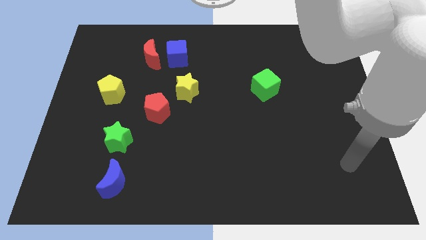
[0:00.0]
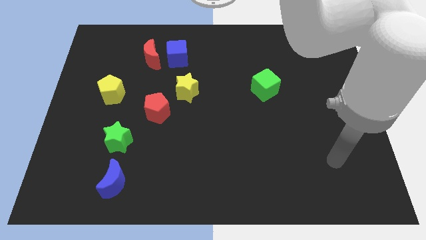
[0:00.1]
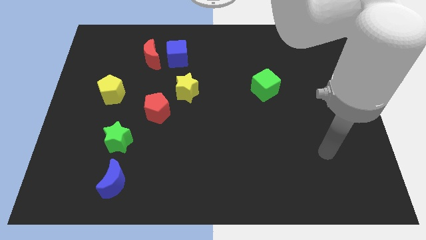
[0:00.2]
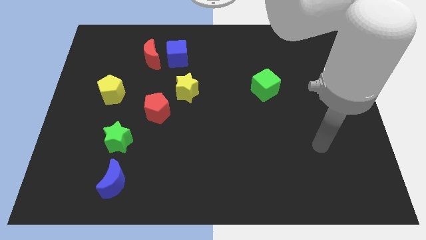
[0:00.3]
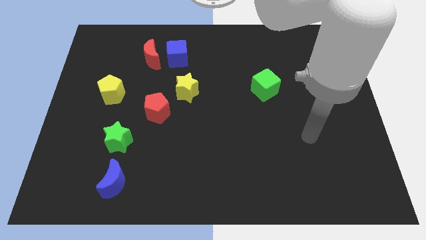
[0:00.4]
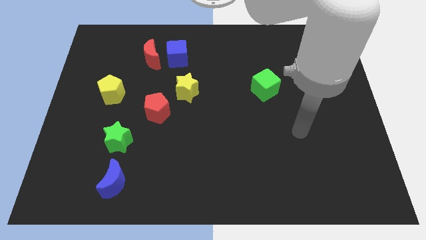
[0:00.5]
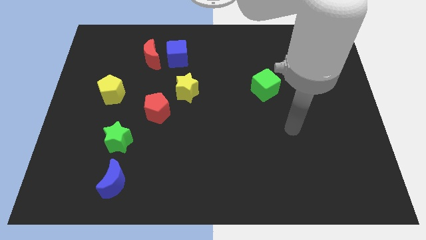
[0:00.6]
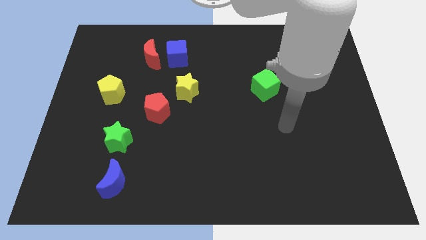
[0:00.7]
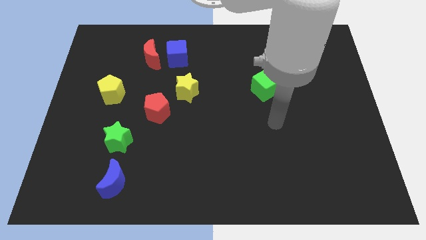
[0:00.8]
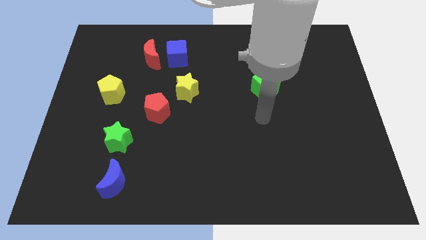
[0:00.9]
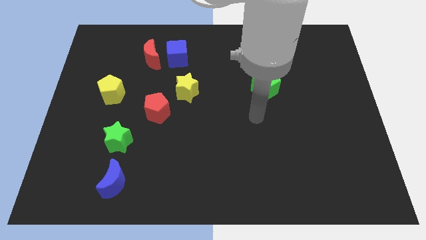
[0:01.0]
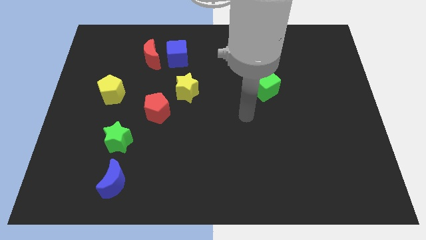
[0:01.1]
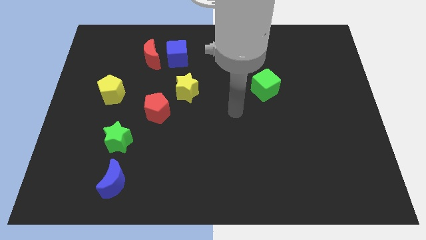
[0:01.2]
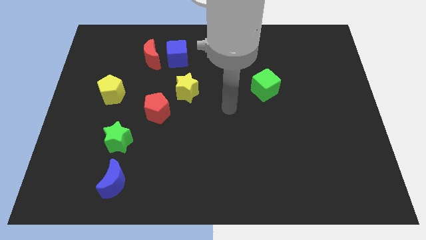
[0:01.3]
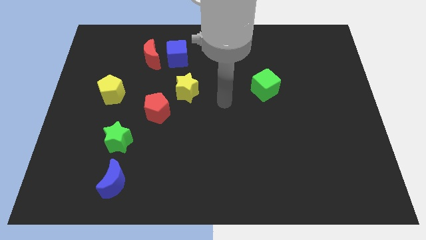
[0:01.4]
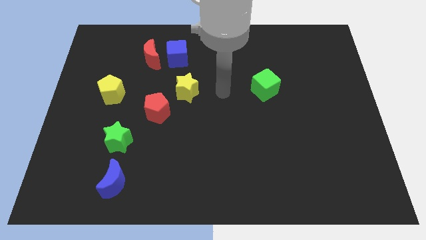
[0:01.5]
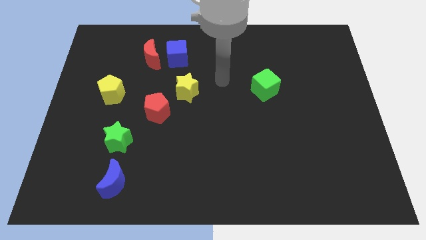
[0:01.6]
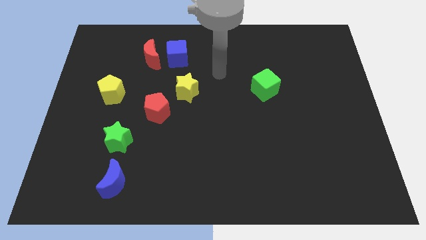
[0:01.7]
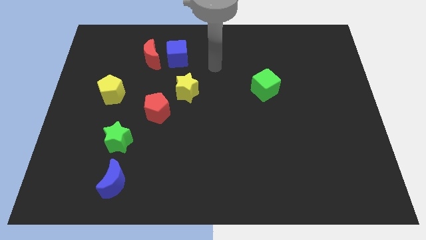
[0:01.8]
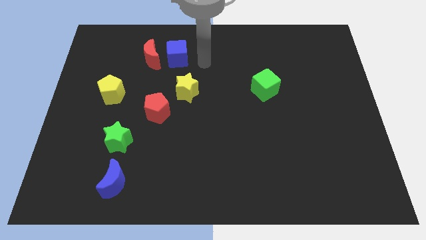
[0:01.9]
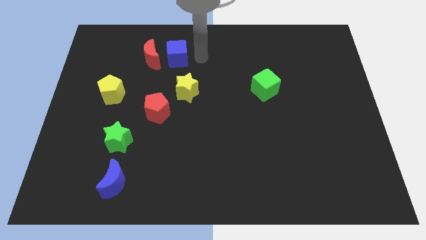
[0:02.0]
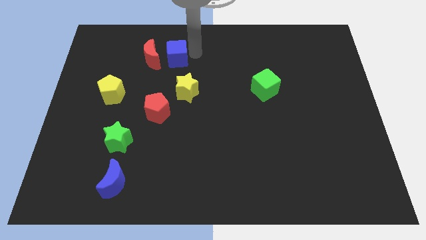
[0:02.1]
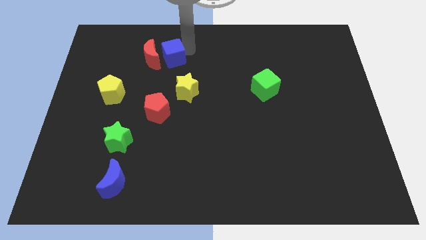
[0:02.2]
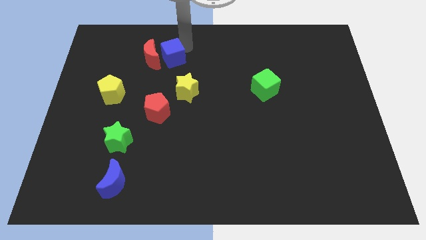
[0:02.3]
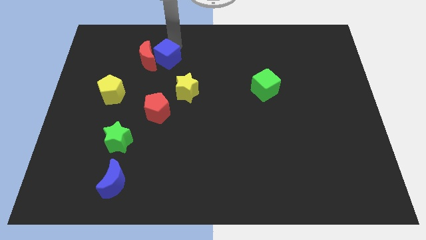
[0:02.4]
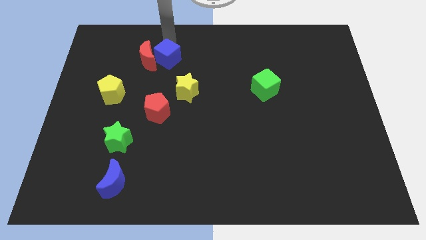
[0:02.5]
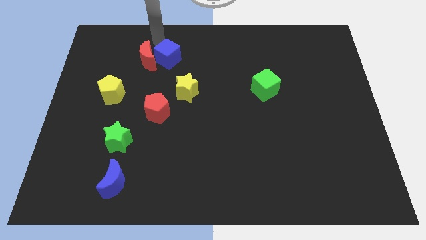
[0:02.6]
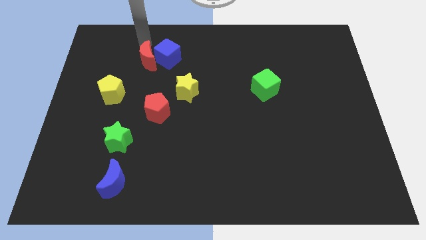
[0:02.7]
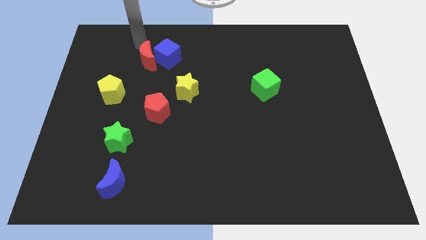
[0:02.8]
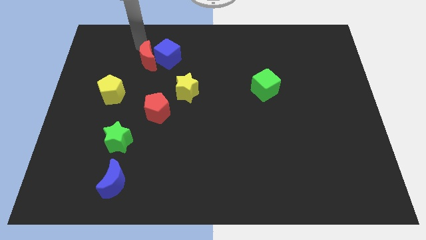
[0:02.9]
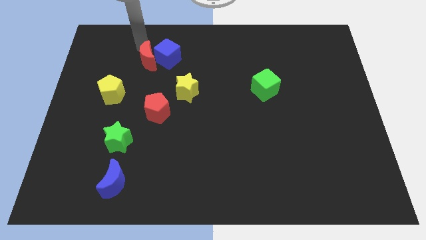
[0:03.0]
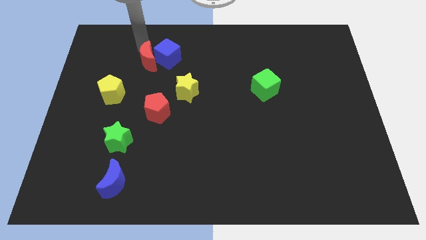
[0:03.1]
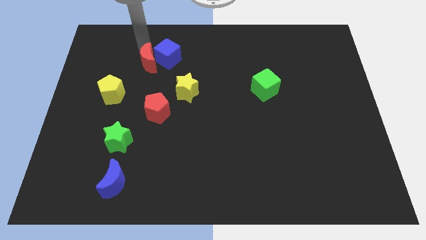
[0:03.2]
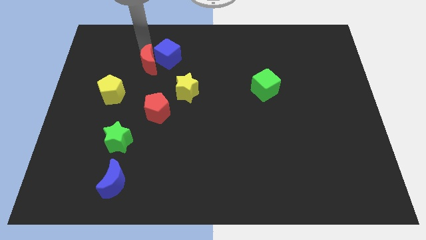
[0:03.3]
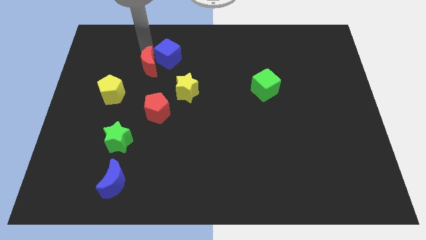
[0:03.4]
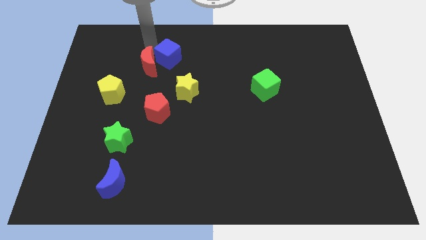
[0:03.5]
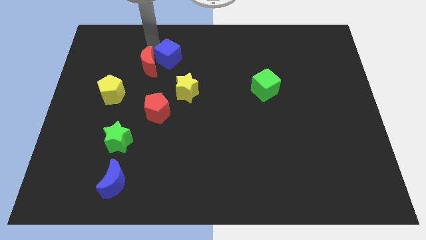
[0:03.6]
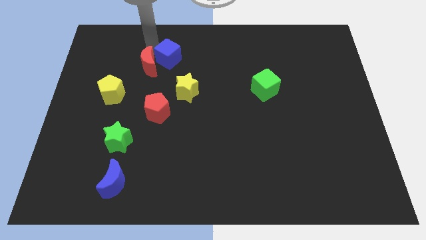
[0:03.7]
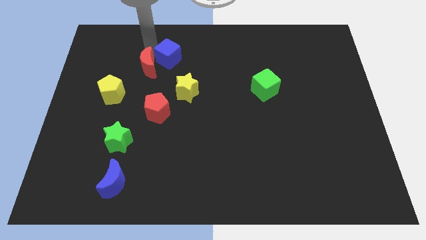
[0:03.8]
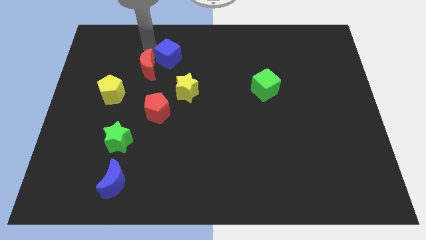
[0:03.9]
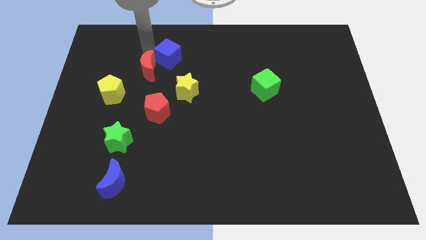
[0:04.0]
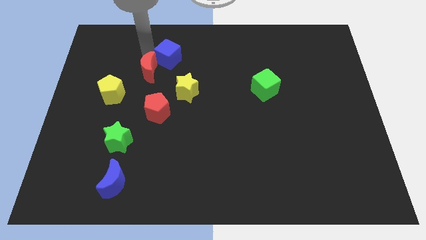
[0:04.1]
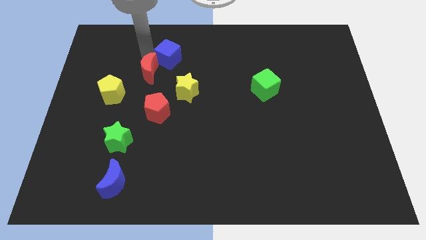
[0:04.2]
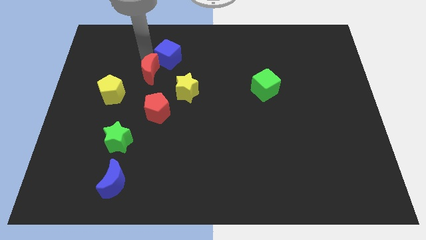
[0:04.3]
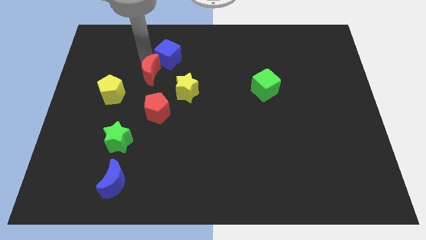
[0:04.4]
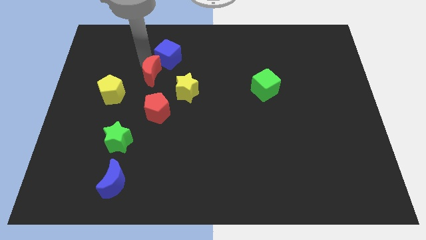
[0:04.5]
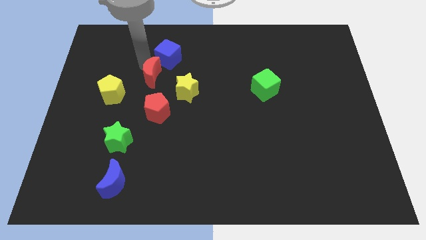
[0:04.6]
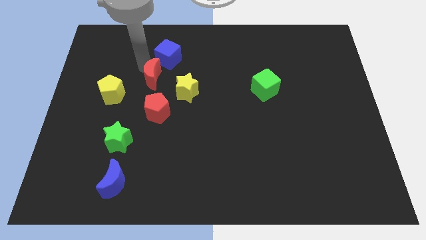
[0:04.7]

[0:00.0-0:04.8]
slide the red moon down slightly

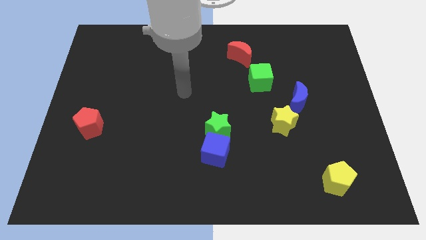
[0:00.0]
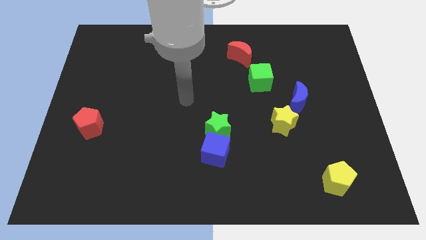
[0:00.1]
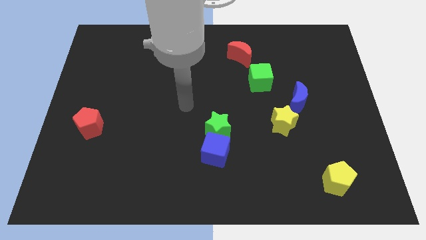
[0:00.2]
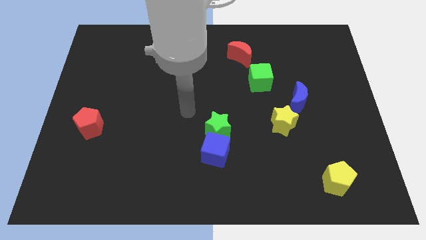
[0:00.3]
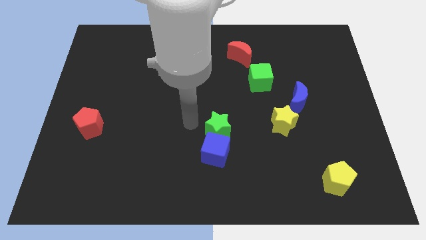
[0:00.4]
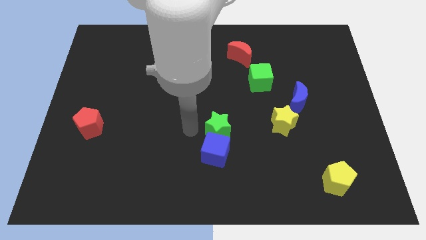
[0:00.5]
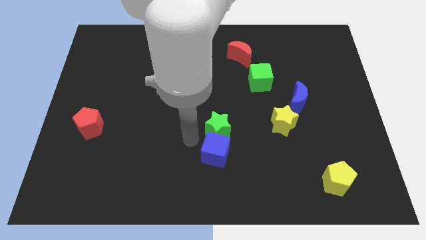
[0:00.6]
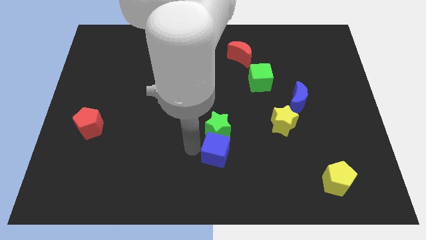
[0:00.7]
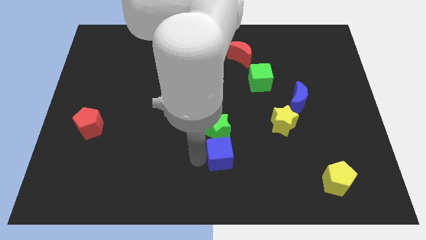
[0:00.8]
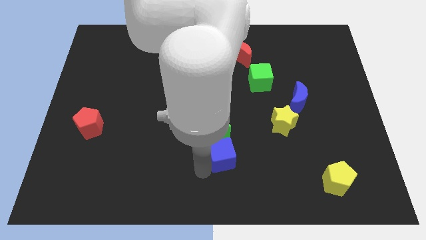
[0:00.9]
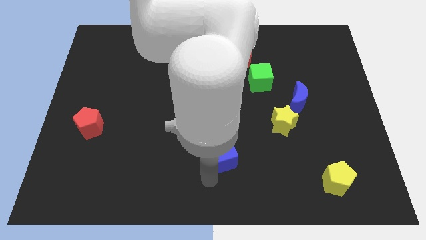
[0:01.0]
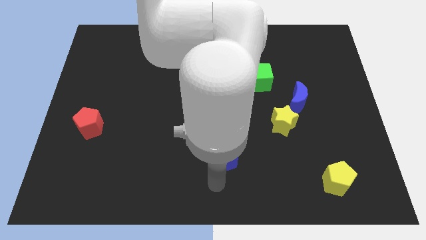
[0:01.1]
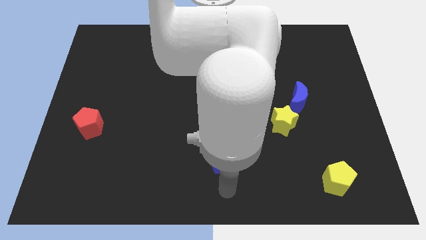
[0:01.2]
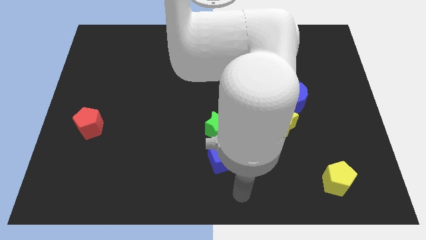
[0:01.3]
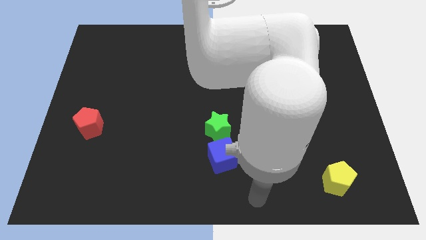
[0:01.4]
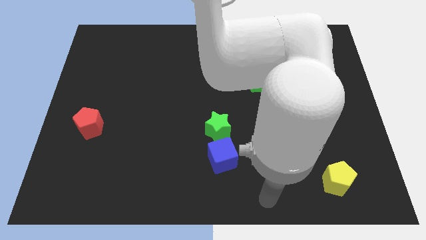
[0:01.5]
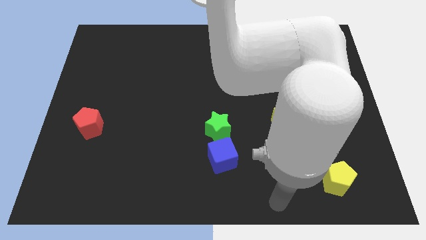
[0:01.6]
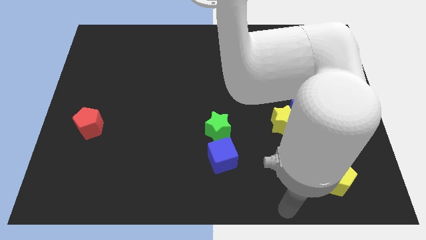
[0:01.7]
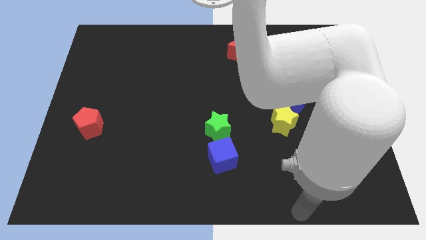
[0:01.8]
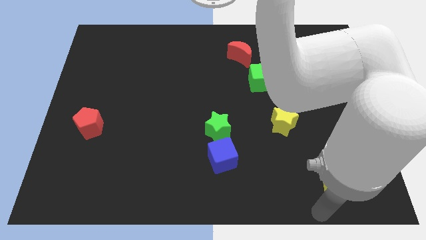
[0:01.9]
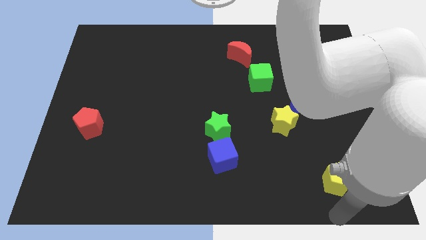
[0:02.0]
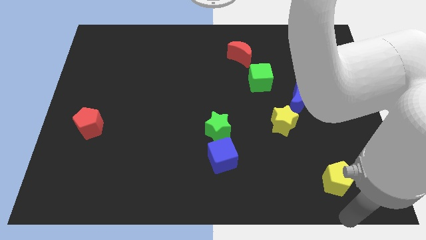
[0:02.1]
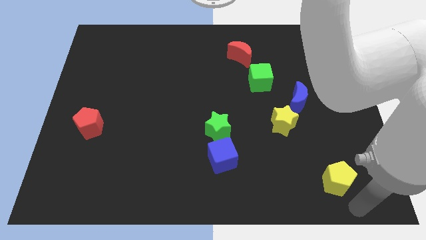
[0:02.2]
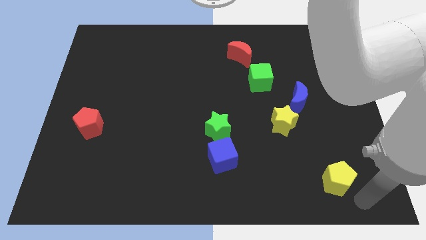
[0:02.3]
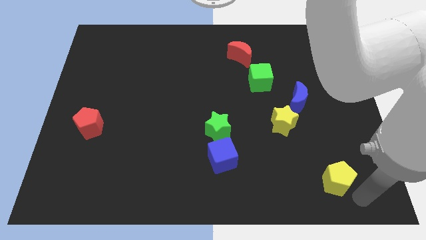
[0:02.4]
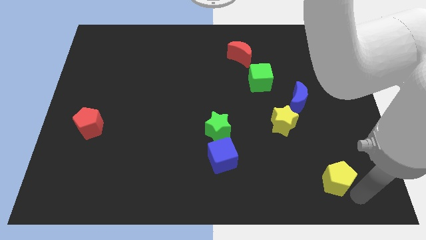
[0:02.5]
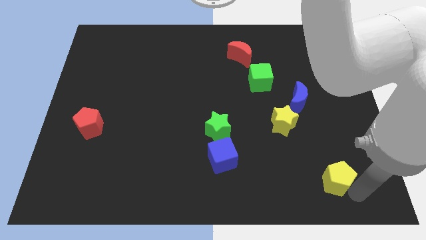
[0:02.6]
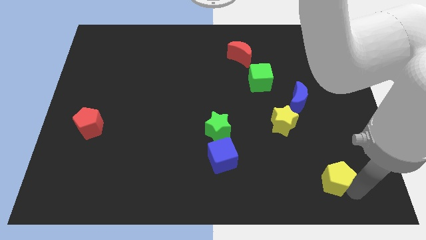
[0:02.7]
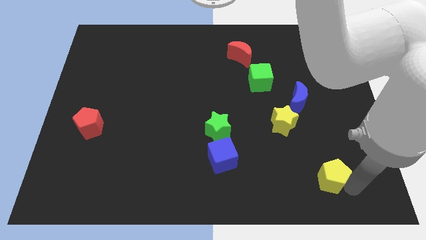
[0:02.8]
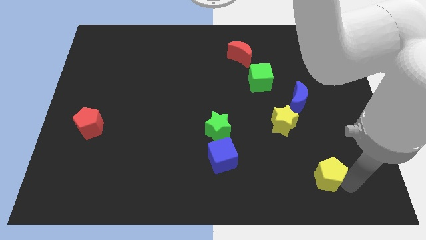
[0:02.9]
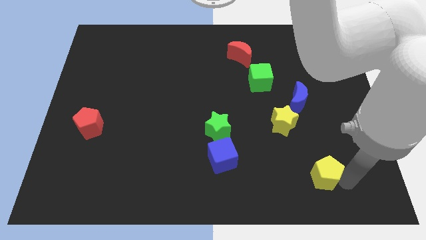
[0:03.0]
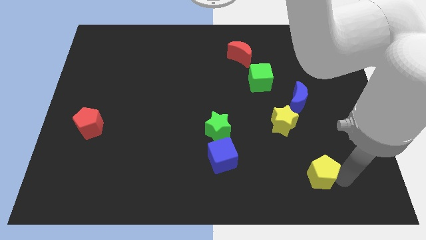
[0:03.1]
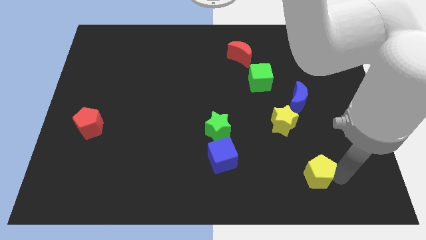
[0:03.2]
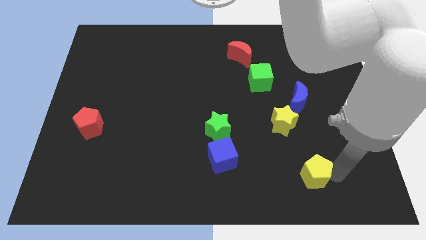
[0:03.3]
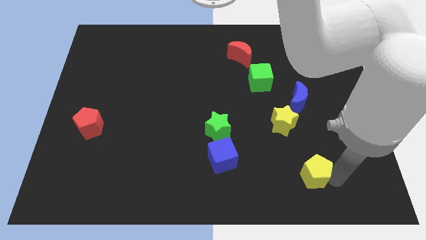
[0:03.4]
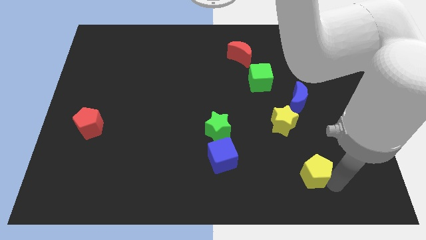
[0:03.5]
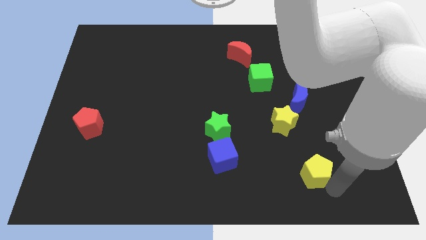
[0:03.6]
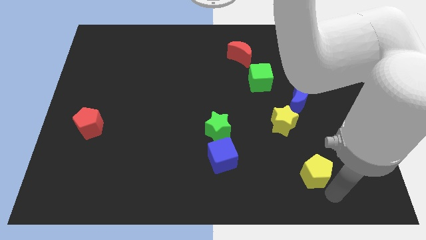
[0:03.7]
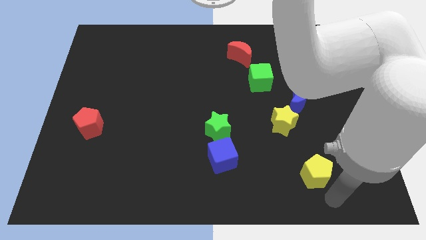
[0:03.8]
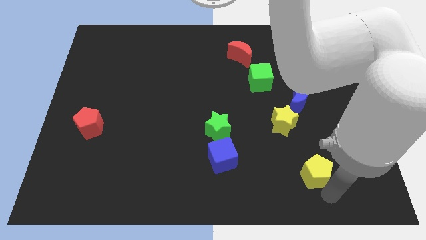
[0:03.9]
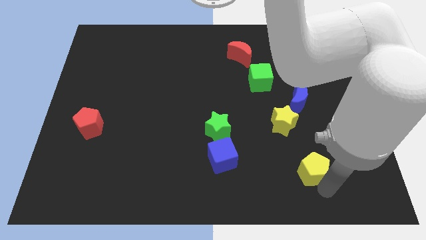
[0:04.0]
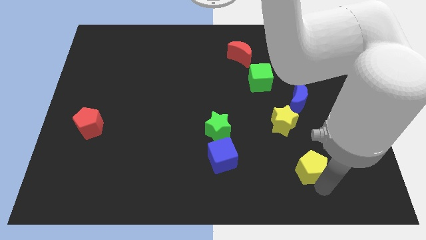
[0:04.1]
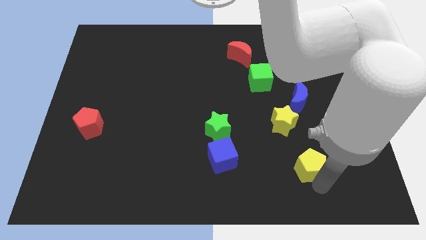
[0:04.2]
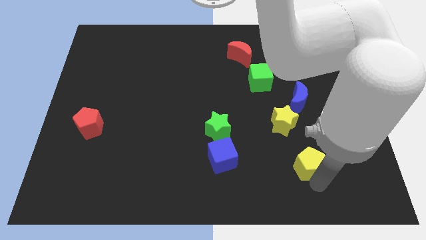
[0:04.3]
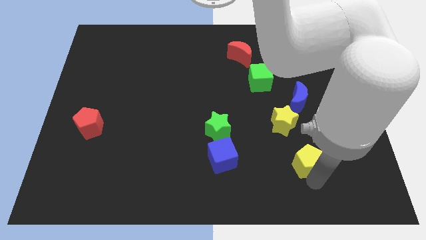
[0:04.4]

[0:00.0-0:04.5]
slide the yellow pentagon a bit up and to the left
